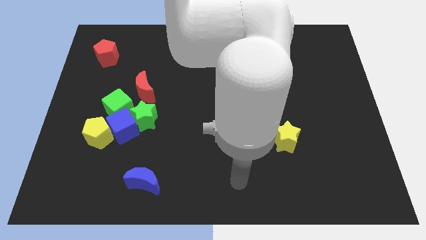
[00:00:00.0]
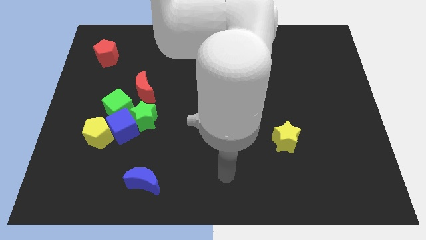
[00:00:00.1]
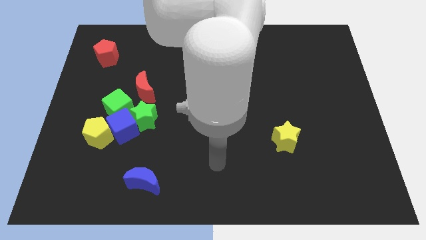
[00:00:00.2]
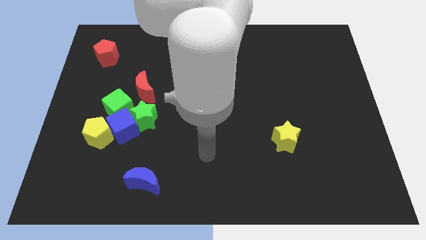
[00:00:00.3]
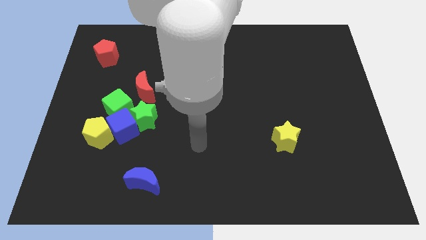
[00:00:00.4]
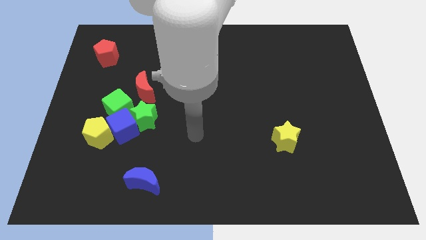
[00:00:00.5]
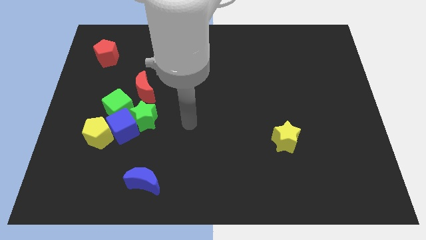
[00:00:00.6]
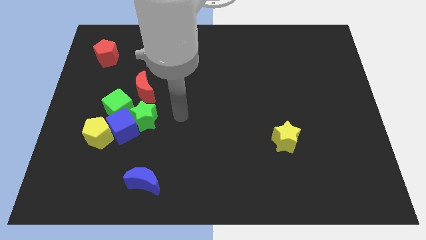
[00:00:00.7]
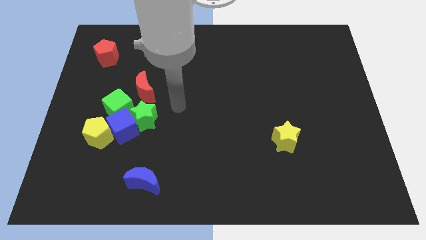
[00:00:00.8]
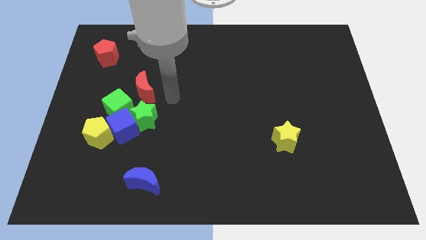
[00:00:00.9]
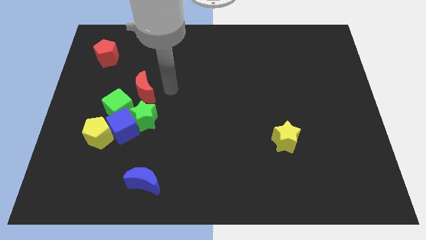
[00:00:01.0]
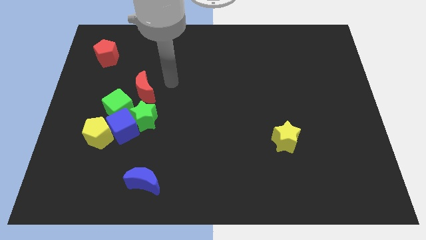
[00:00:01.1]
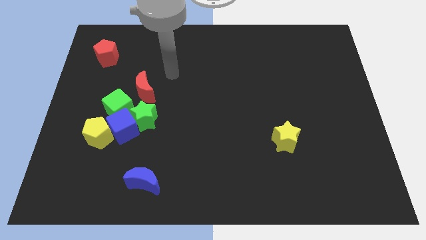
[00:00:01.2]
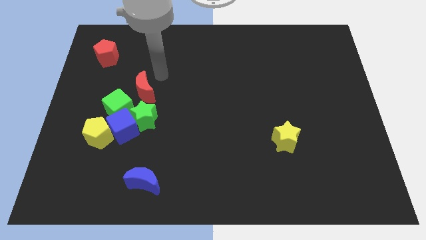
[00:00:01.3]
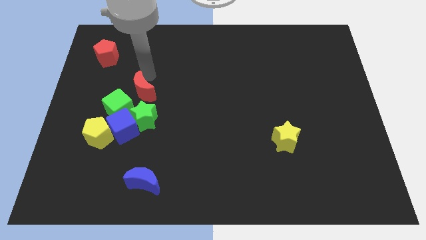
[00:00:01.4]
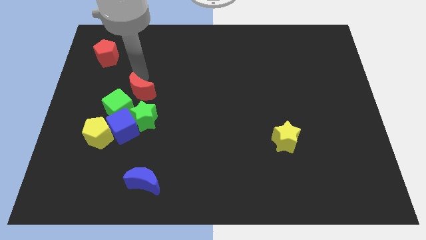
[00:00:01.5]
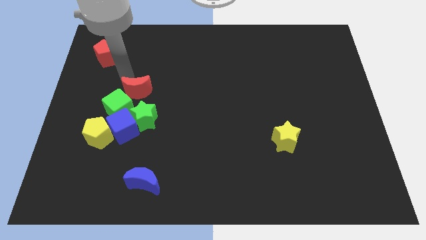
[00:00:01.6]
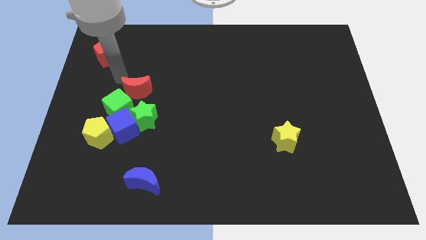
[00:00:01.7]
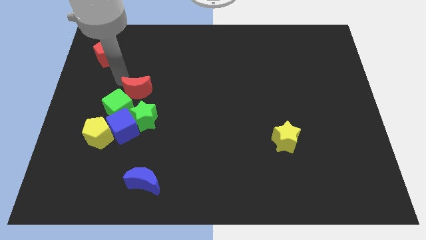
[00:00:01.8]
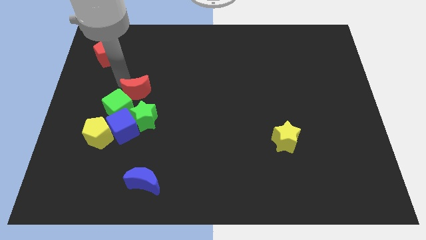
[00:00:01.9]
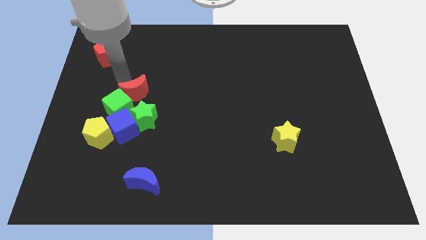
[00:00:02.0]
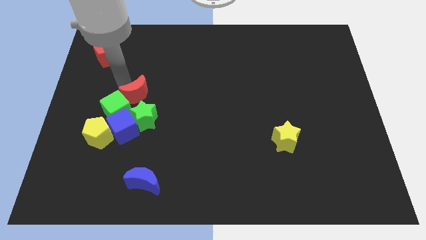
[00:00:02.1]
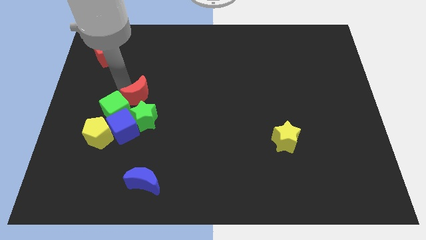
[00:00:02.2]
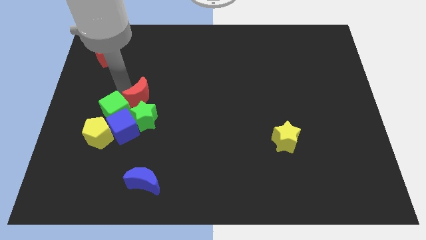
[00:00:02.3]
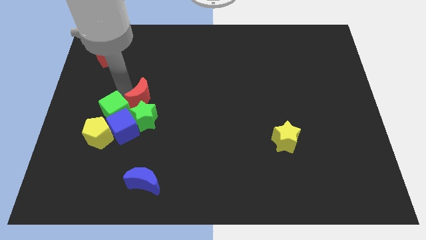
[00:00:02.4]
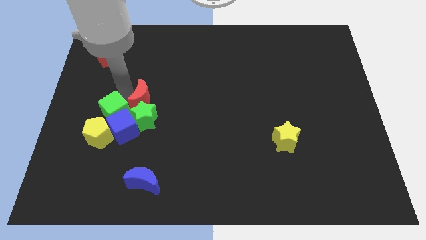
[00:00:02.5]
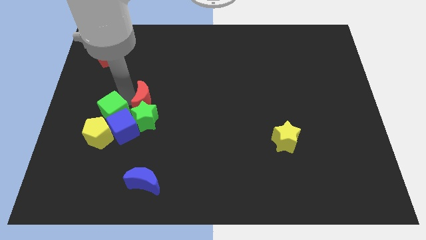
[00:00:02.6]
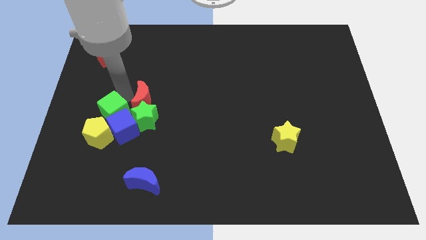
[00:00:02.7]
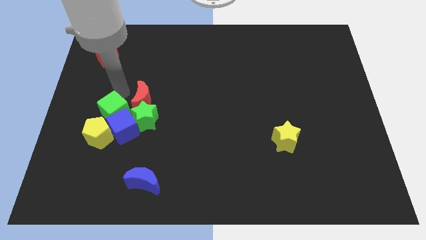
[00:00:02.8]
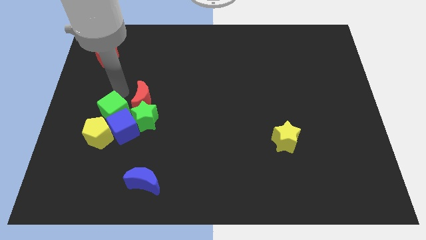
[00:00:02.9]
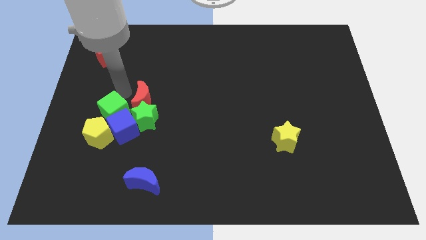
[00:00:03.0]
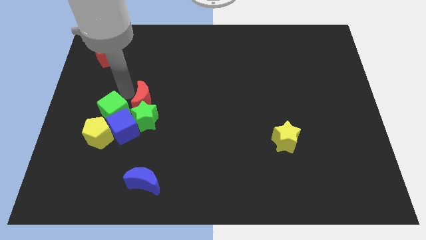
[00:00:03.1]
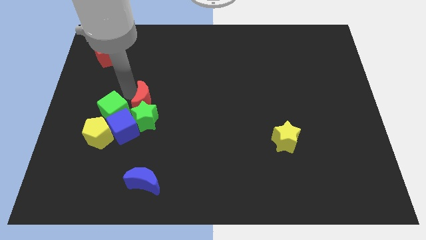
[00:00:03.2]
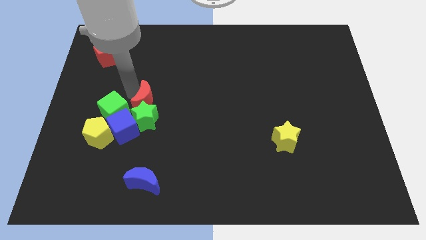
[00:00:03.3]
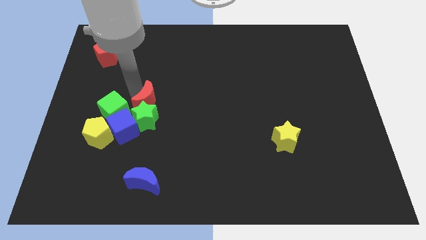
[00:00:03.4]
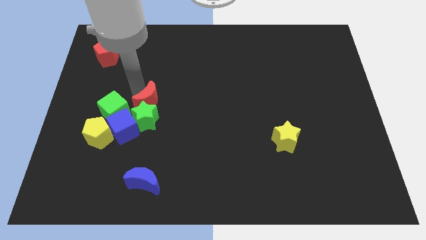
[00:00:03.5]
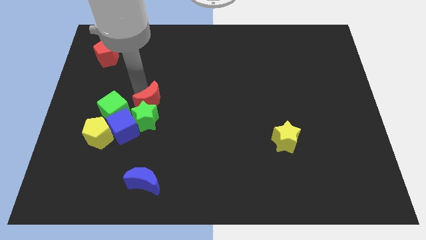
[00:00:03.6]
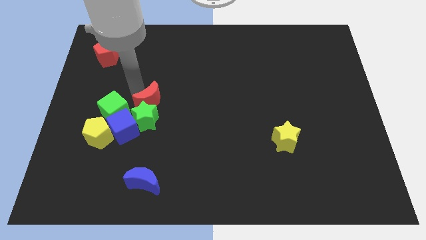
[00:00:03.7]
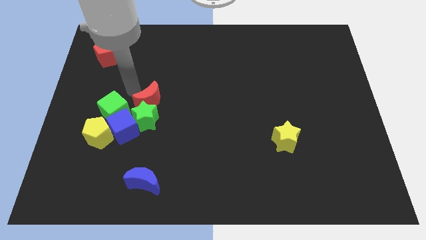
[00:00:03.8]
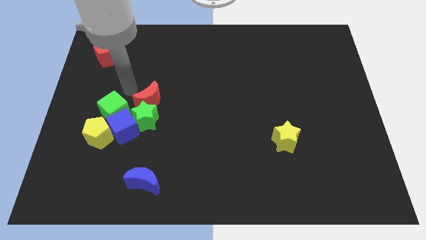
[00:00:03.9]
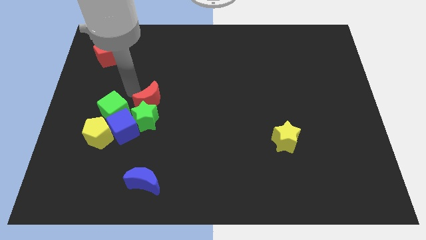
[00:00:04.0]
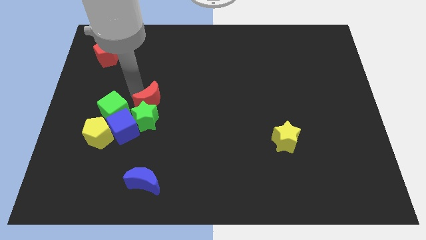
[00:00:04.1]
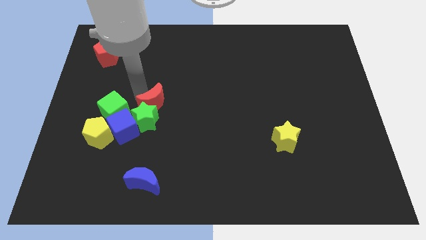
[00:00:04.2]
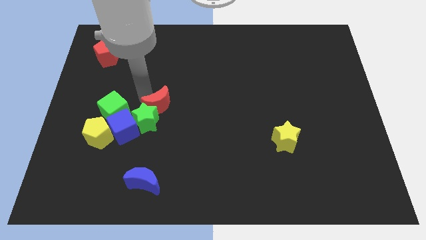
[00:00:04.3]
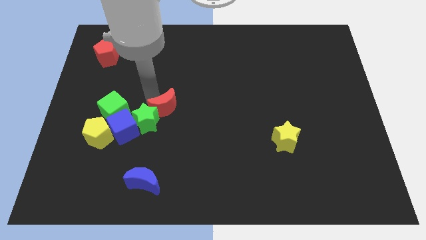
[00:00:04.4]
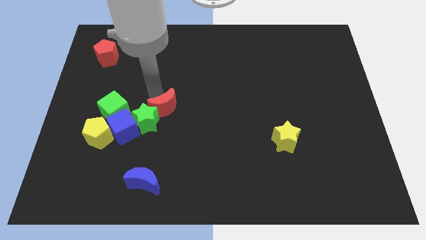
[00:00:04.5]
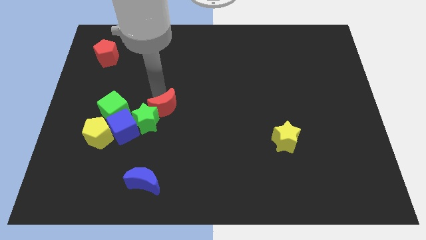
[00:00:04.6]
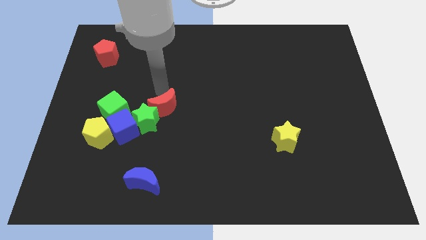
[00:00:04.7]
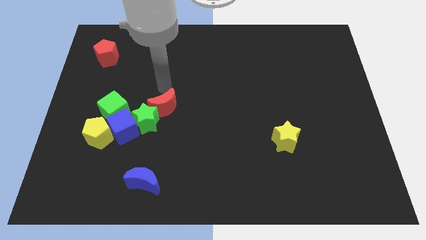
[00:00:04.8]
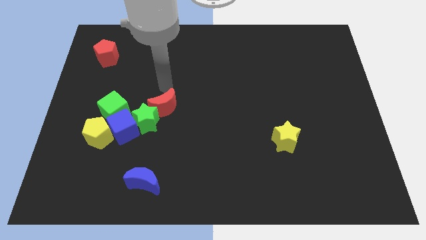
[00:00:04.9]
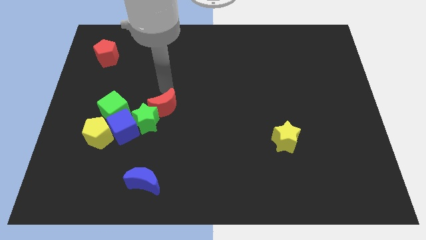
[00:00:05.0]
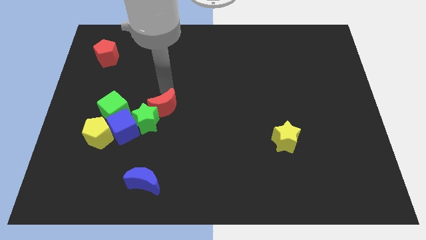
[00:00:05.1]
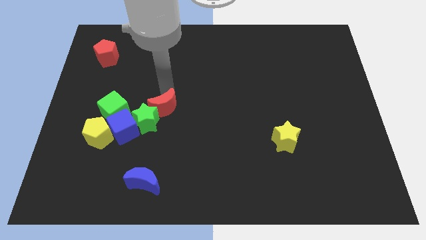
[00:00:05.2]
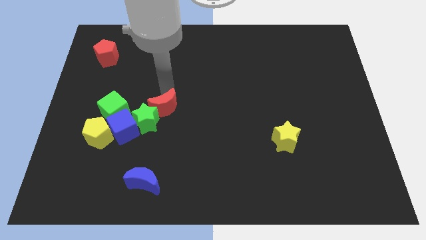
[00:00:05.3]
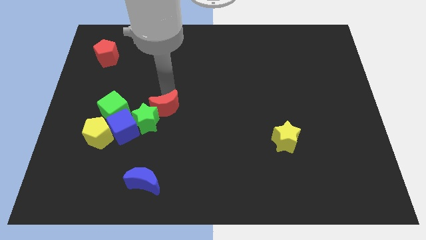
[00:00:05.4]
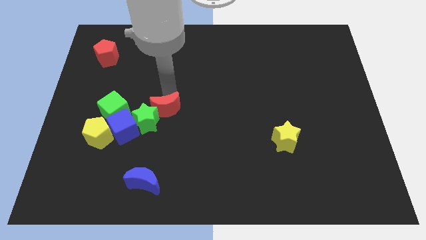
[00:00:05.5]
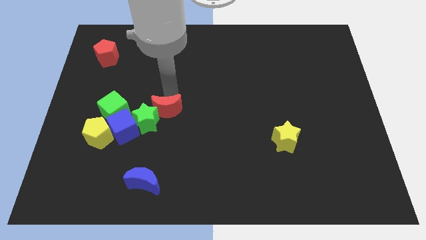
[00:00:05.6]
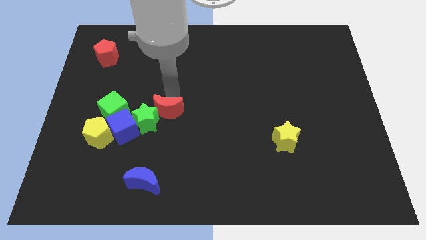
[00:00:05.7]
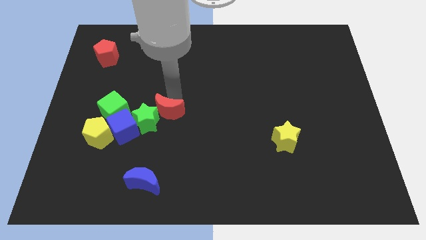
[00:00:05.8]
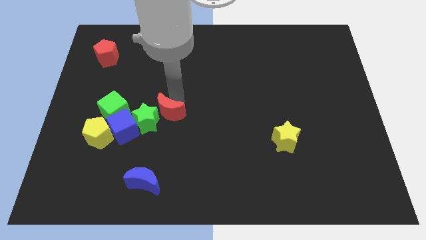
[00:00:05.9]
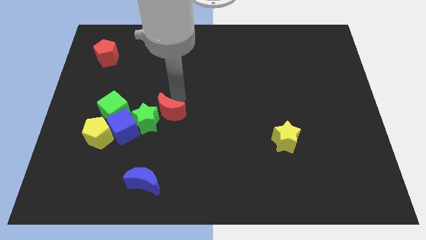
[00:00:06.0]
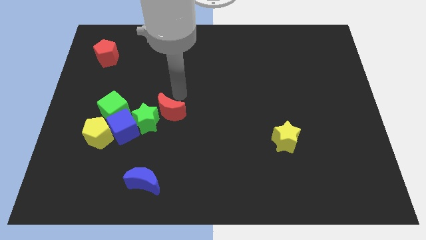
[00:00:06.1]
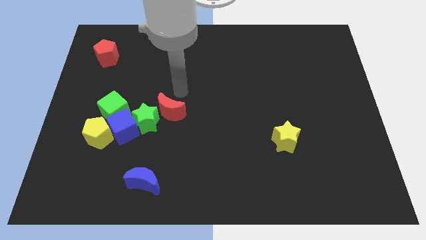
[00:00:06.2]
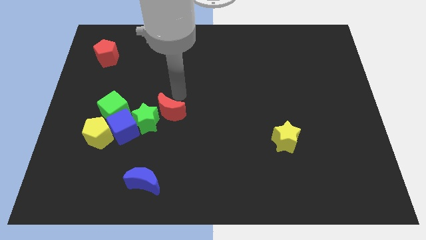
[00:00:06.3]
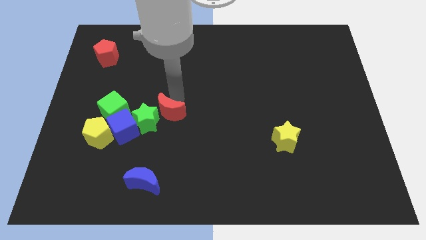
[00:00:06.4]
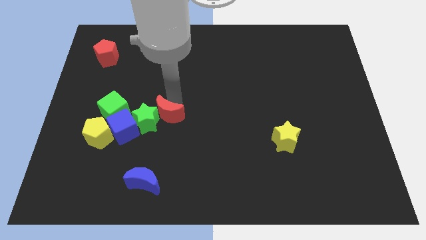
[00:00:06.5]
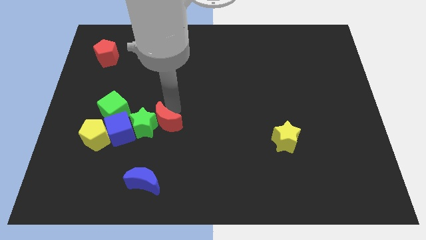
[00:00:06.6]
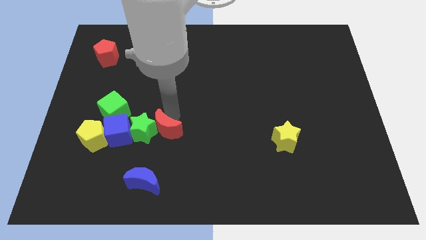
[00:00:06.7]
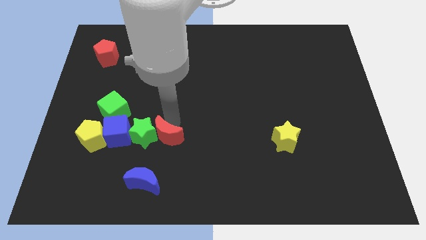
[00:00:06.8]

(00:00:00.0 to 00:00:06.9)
slide the red moon to the right of the yellow pentagon
